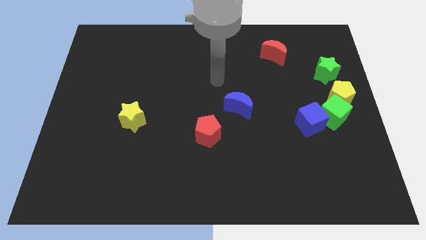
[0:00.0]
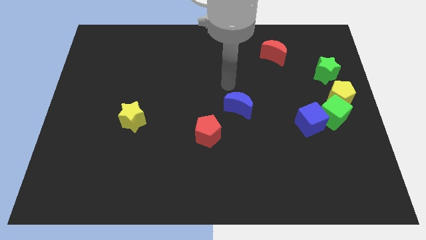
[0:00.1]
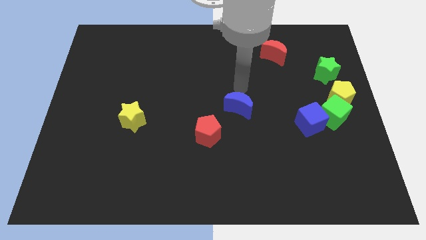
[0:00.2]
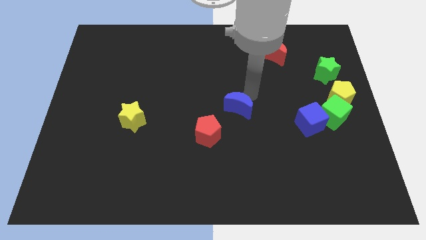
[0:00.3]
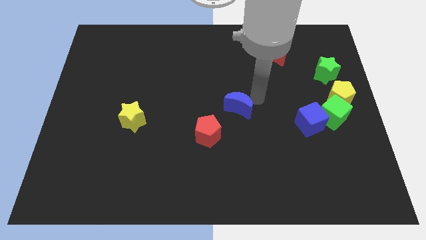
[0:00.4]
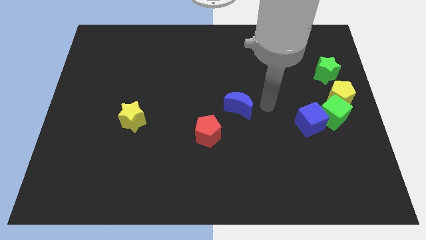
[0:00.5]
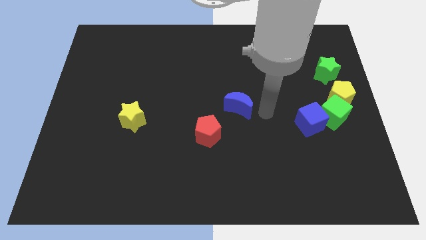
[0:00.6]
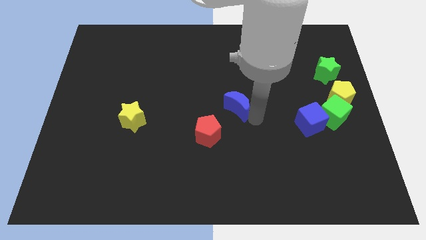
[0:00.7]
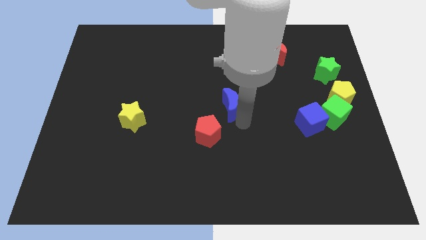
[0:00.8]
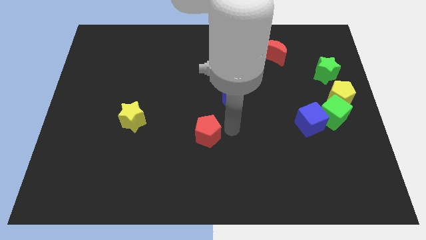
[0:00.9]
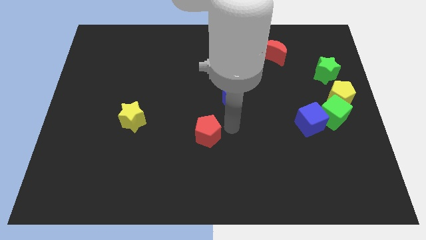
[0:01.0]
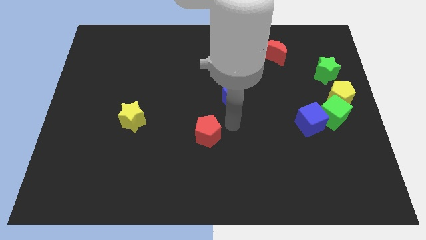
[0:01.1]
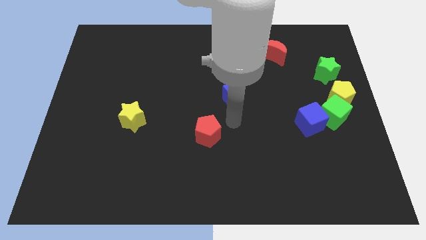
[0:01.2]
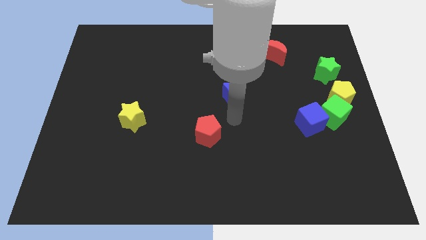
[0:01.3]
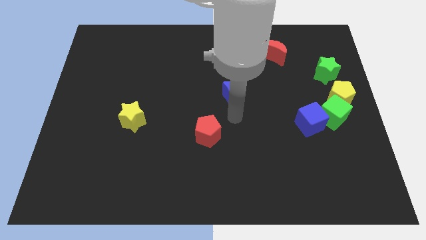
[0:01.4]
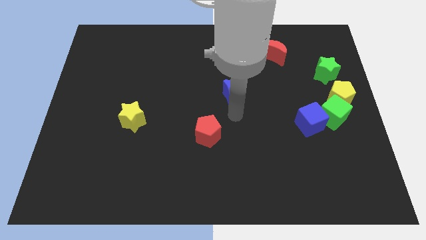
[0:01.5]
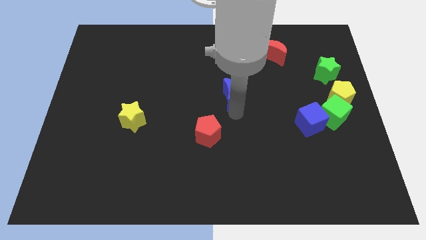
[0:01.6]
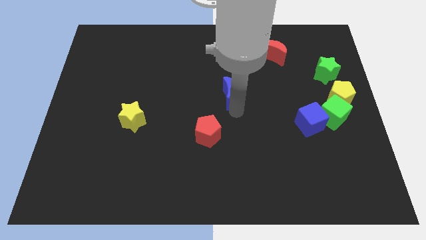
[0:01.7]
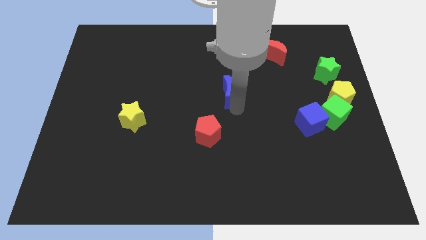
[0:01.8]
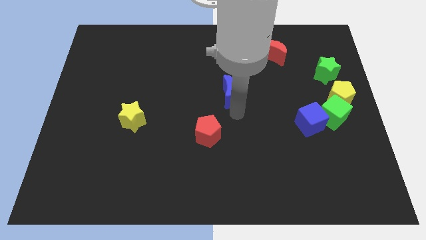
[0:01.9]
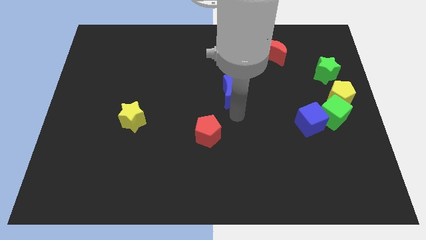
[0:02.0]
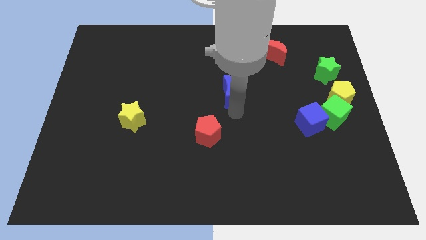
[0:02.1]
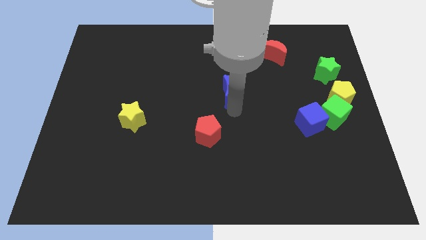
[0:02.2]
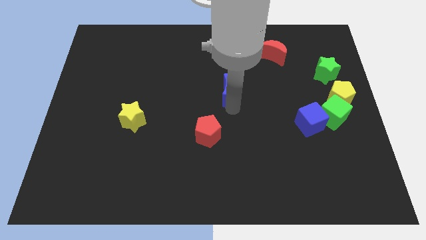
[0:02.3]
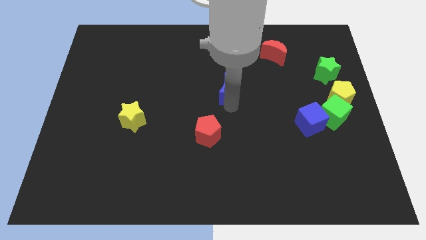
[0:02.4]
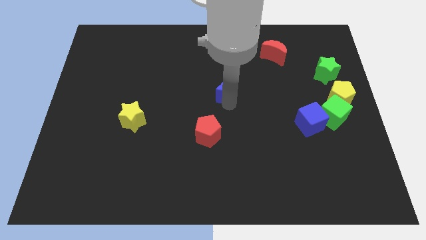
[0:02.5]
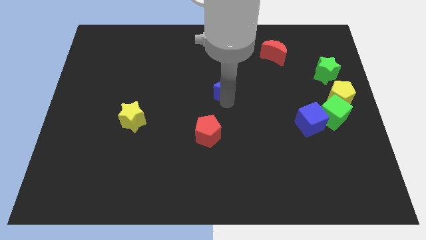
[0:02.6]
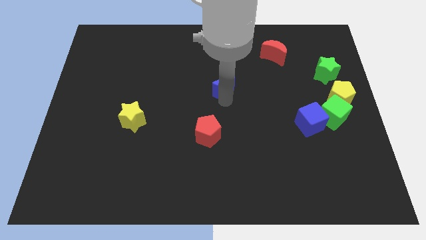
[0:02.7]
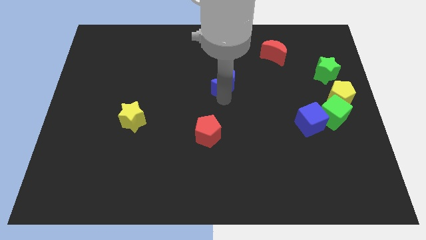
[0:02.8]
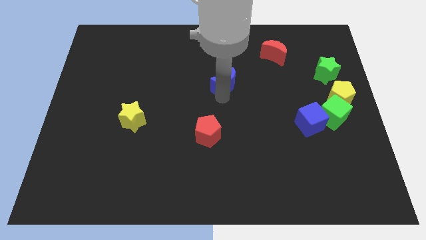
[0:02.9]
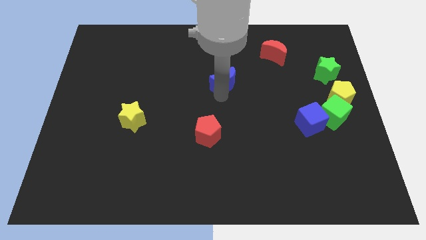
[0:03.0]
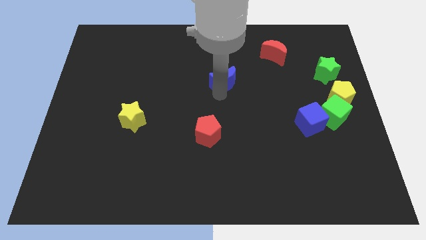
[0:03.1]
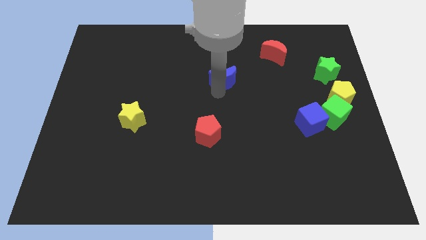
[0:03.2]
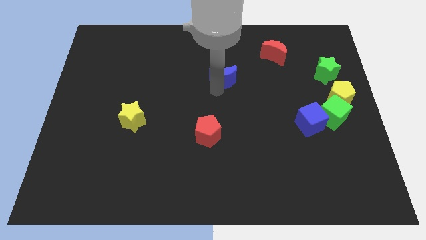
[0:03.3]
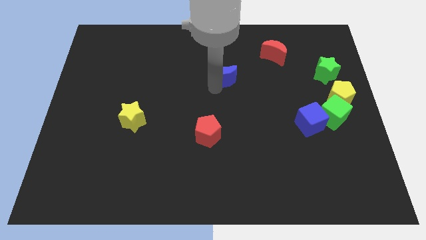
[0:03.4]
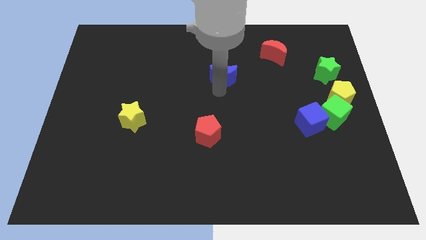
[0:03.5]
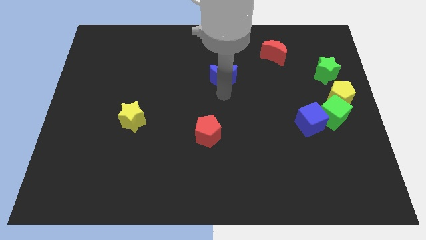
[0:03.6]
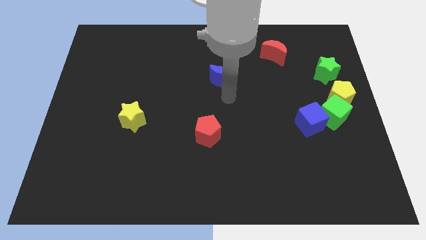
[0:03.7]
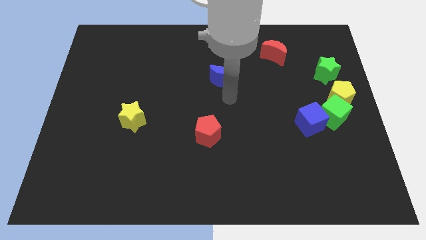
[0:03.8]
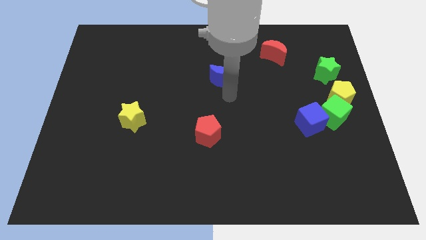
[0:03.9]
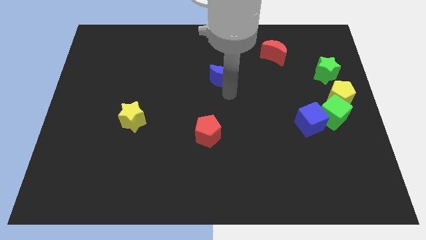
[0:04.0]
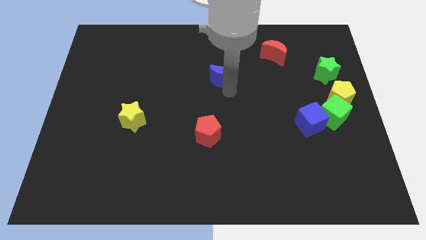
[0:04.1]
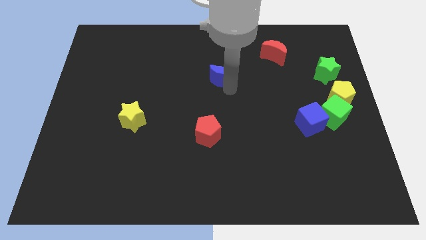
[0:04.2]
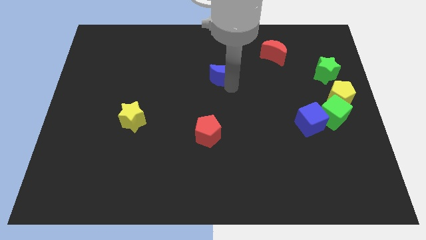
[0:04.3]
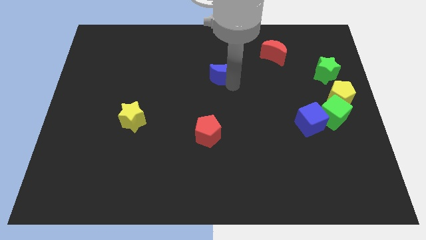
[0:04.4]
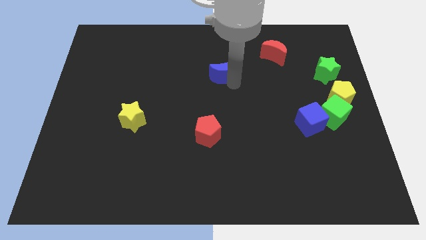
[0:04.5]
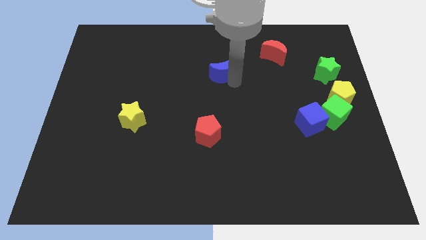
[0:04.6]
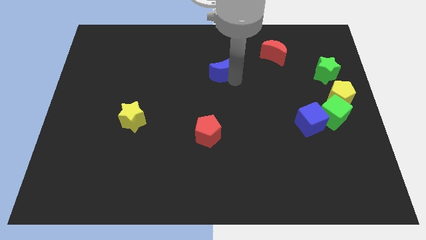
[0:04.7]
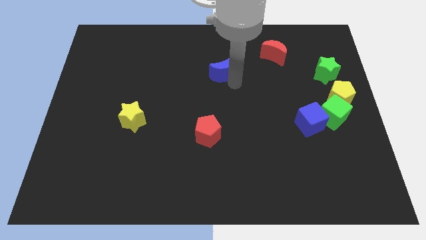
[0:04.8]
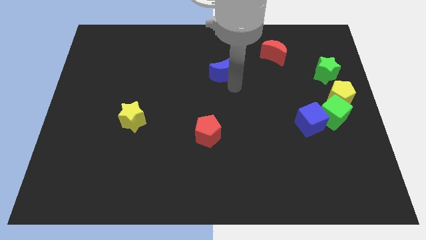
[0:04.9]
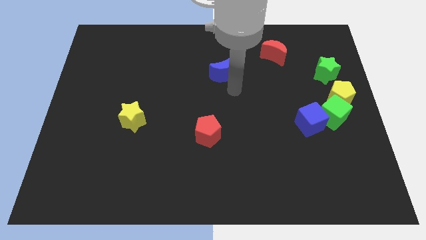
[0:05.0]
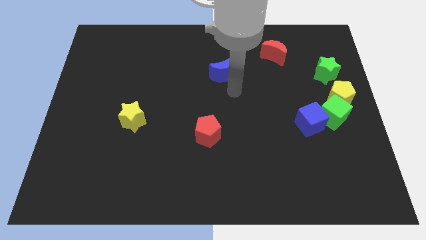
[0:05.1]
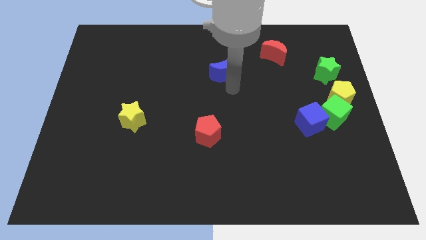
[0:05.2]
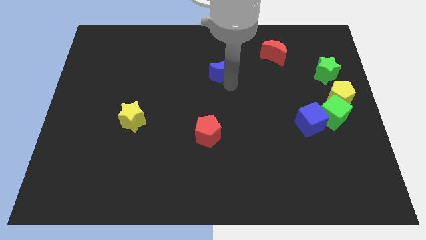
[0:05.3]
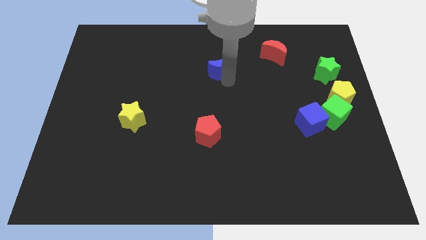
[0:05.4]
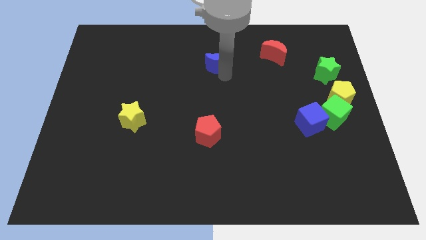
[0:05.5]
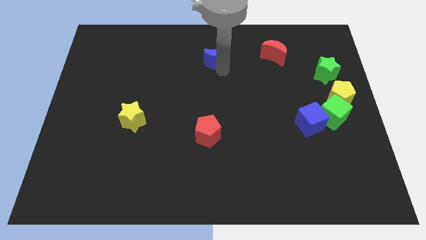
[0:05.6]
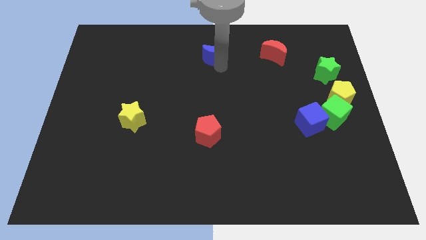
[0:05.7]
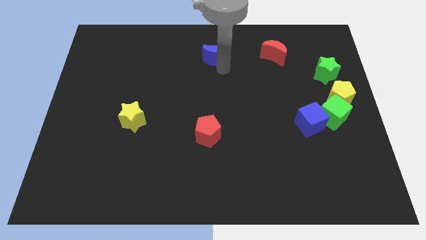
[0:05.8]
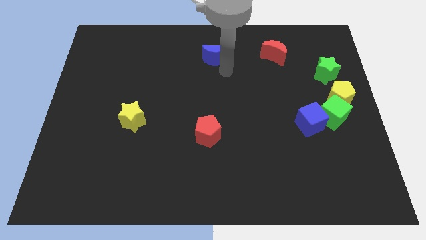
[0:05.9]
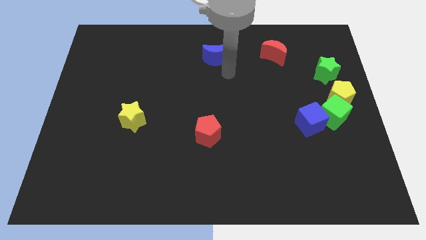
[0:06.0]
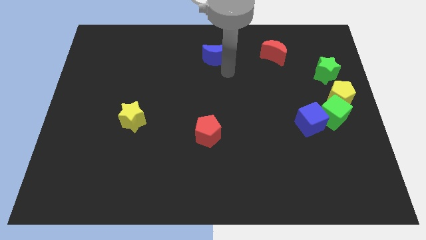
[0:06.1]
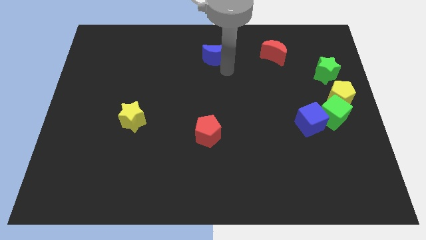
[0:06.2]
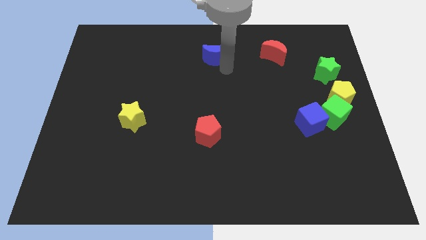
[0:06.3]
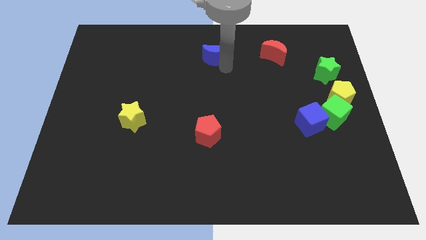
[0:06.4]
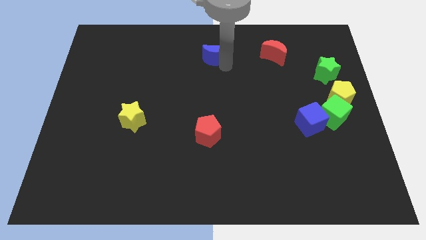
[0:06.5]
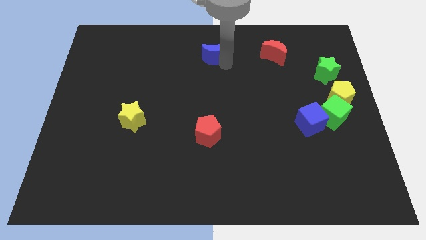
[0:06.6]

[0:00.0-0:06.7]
push the blue moon to the towards your base
